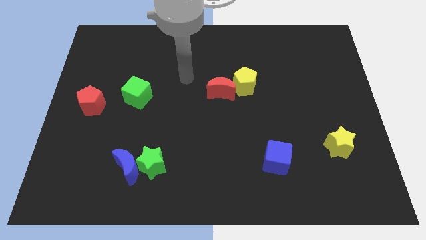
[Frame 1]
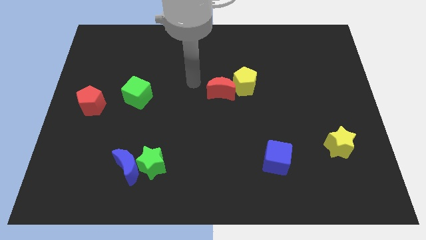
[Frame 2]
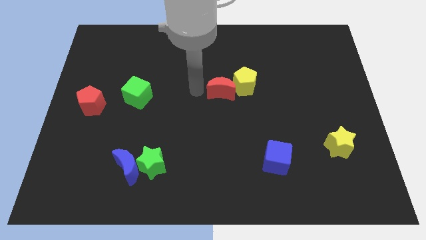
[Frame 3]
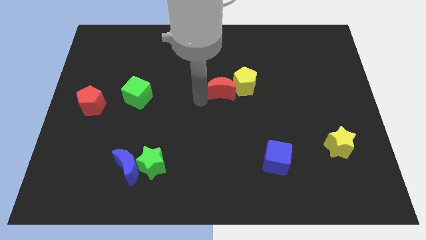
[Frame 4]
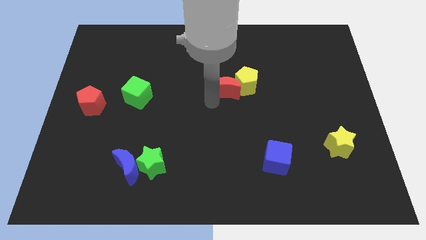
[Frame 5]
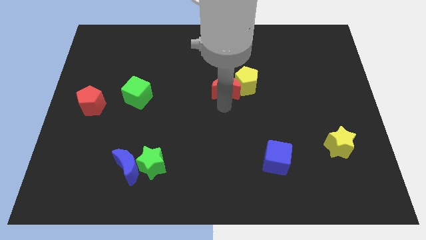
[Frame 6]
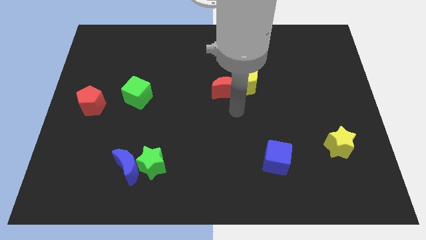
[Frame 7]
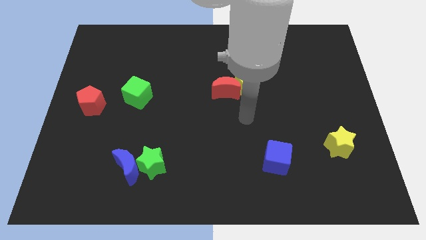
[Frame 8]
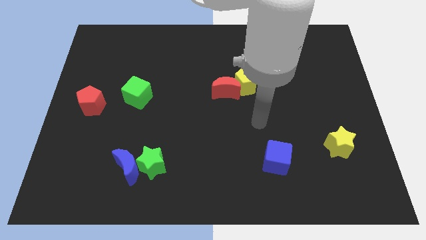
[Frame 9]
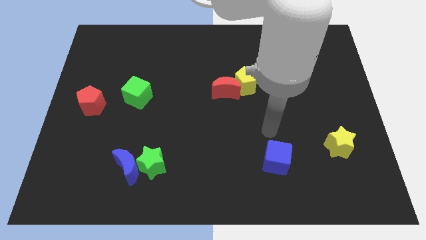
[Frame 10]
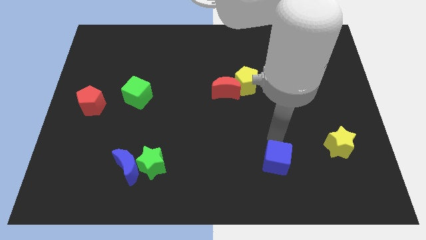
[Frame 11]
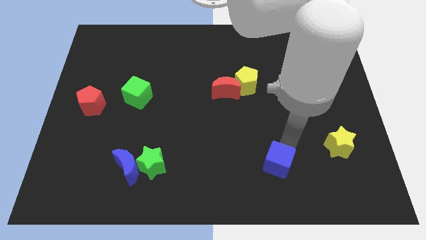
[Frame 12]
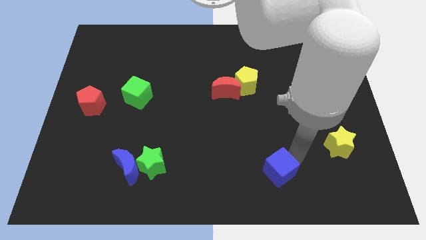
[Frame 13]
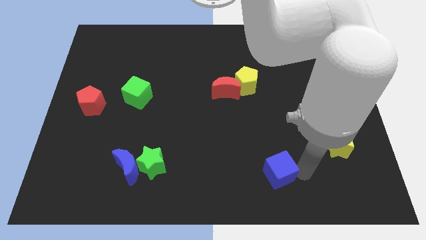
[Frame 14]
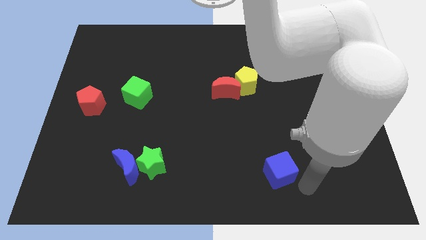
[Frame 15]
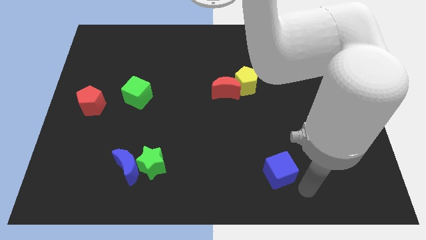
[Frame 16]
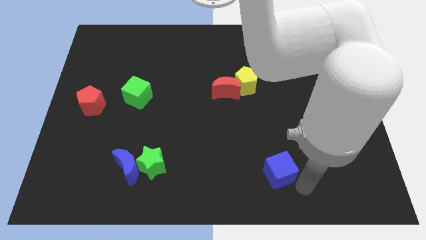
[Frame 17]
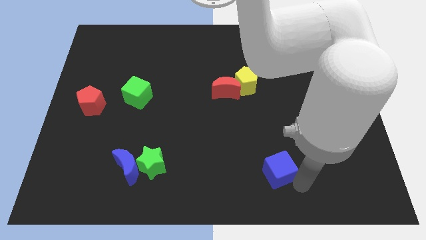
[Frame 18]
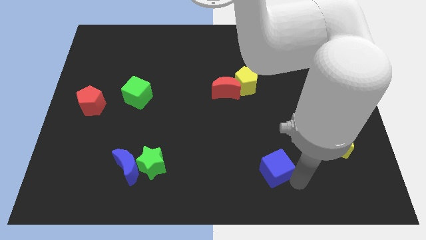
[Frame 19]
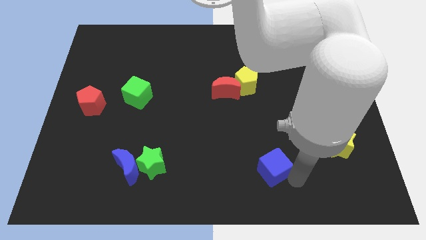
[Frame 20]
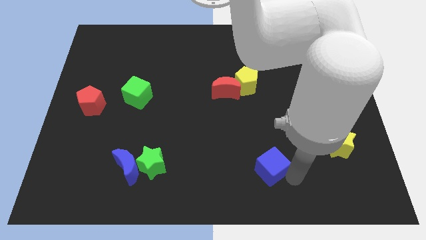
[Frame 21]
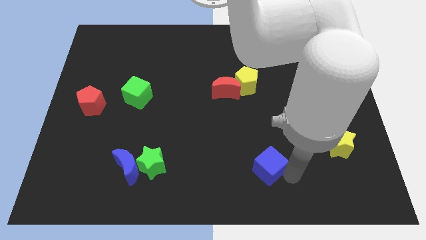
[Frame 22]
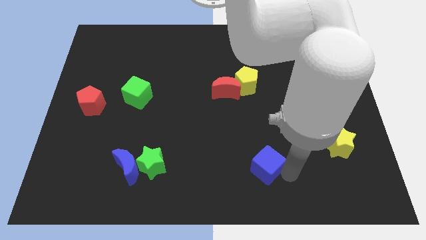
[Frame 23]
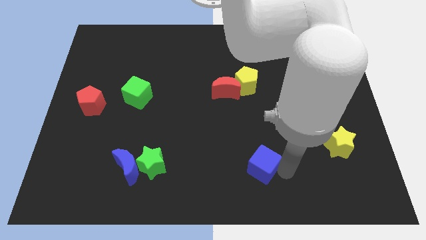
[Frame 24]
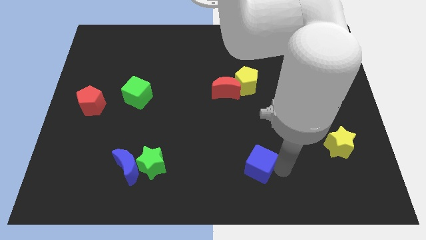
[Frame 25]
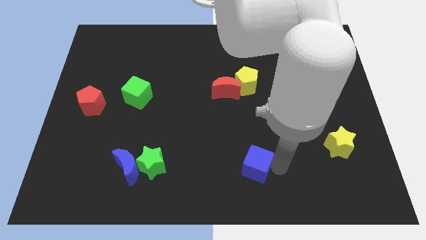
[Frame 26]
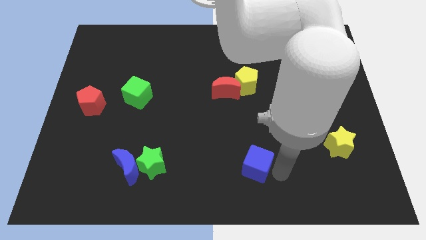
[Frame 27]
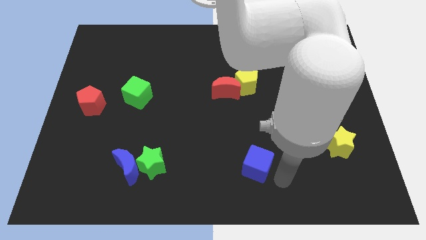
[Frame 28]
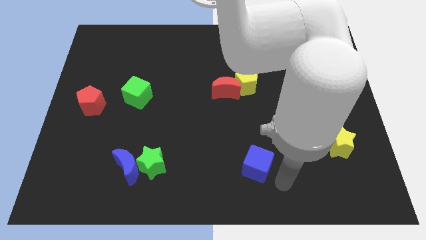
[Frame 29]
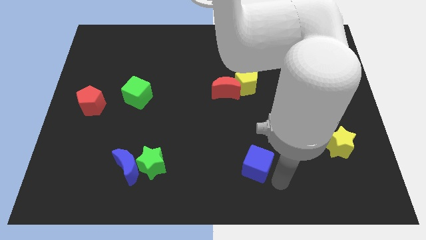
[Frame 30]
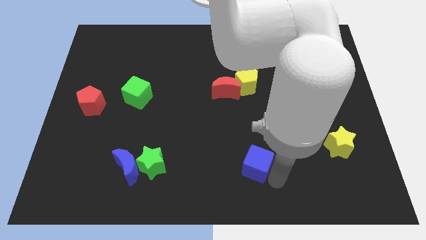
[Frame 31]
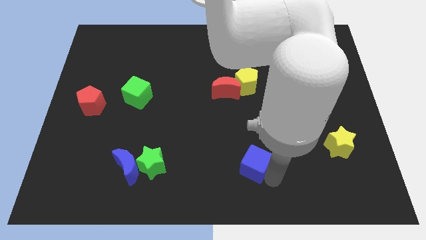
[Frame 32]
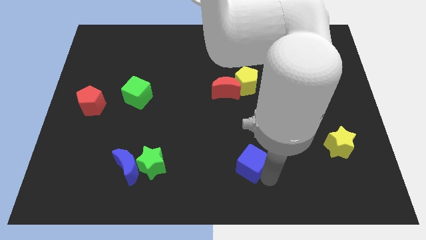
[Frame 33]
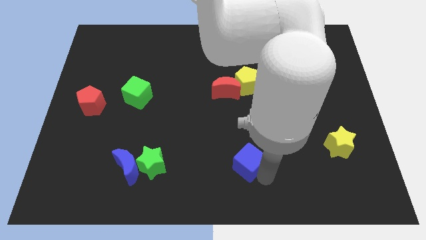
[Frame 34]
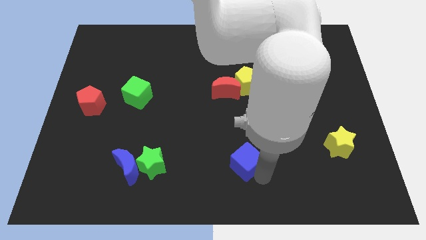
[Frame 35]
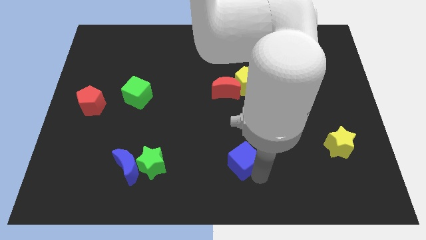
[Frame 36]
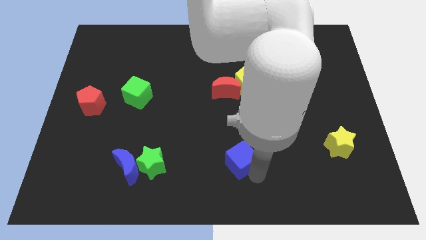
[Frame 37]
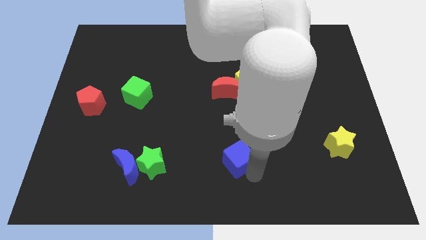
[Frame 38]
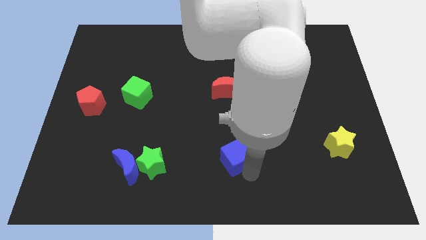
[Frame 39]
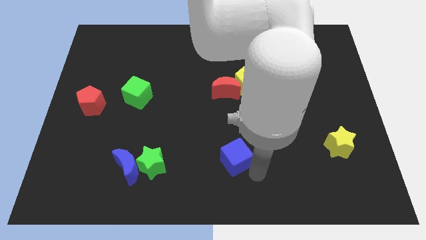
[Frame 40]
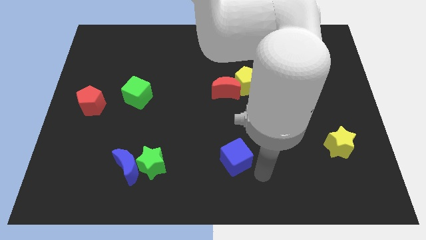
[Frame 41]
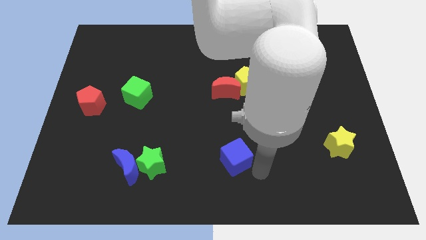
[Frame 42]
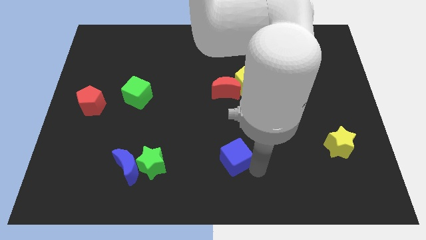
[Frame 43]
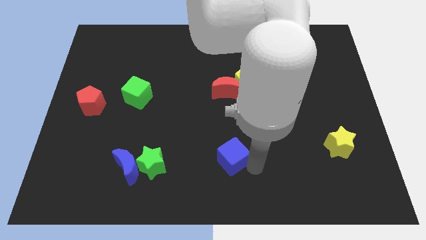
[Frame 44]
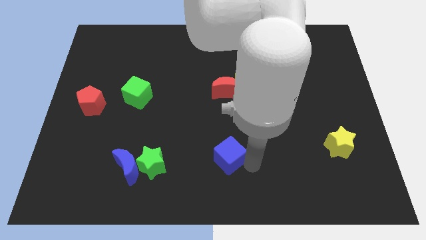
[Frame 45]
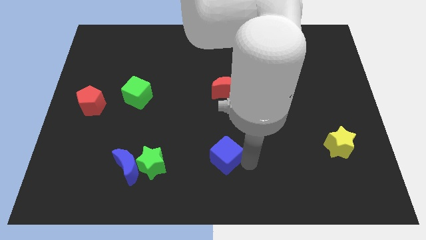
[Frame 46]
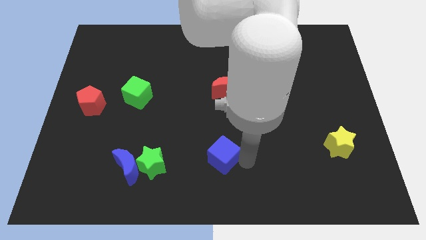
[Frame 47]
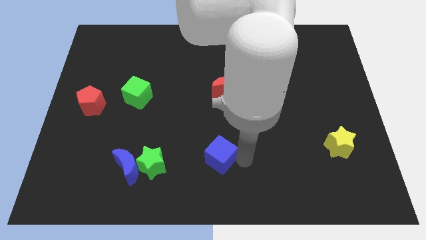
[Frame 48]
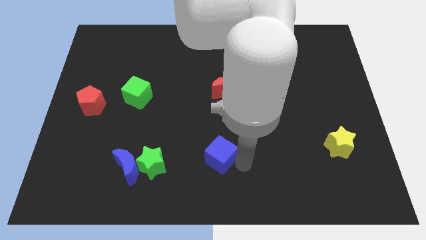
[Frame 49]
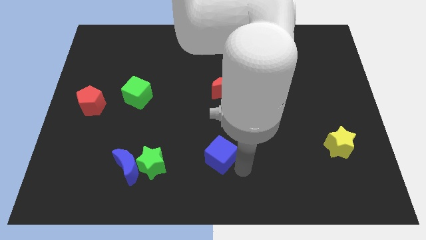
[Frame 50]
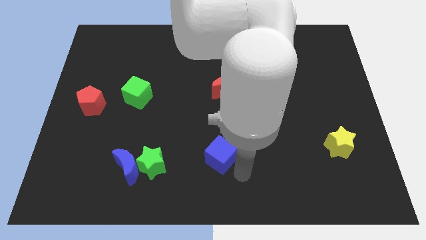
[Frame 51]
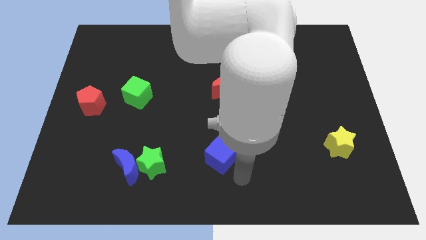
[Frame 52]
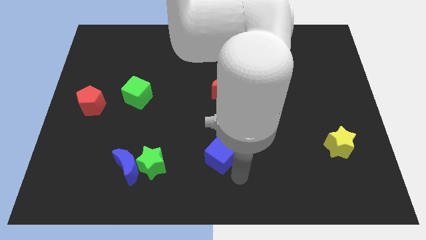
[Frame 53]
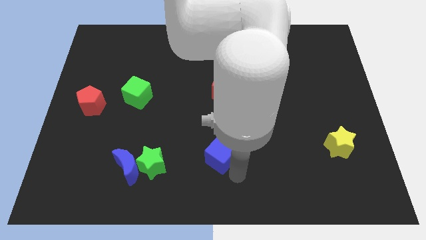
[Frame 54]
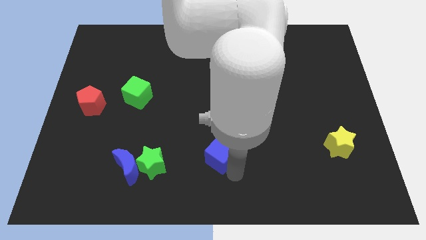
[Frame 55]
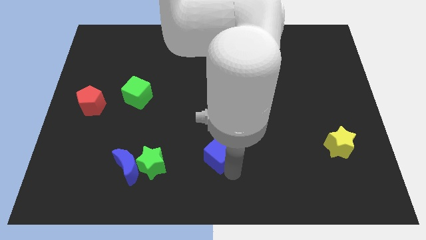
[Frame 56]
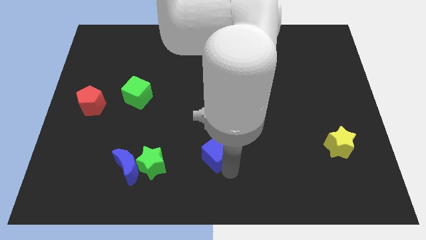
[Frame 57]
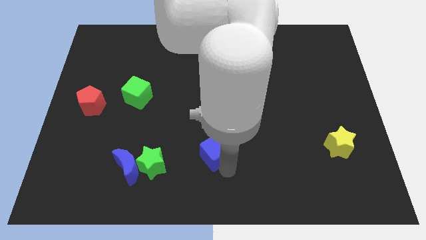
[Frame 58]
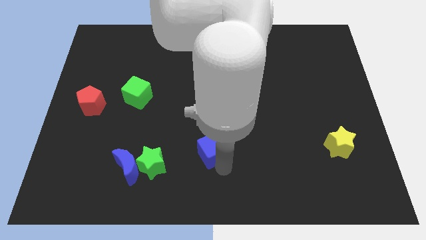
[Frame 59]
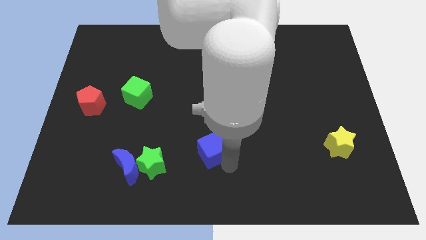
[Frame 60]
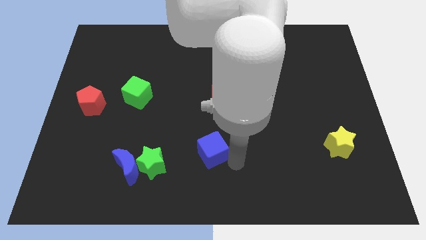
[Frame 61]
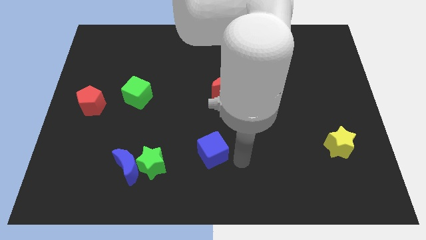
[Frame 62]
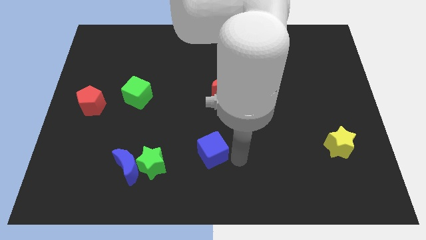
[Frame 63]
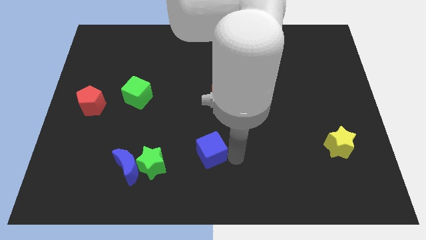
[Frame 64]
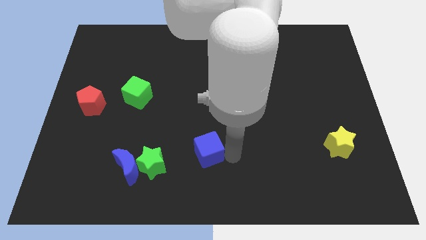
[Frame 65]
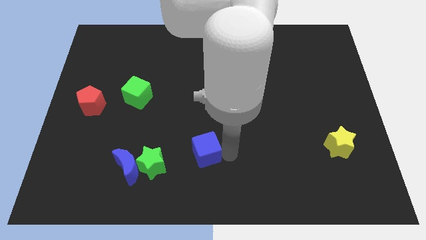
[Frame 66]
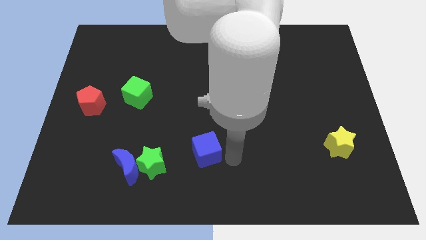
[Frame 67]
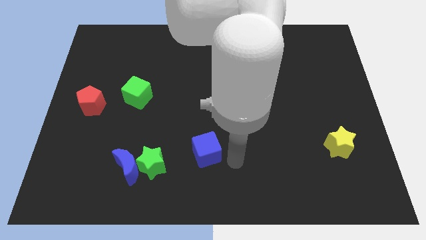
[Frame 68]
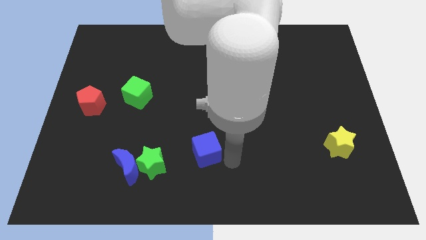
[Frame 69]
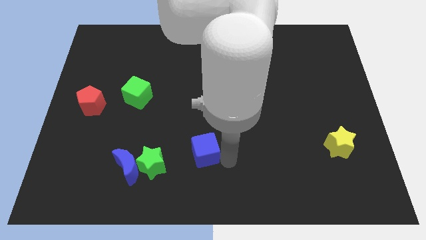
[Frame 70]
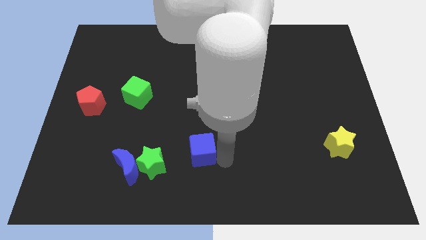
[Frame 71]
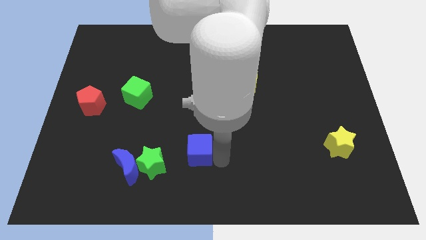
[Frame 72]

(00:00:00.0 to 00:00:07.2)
move the blue cube to the top right of the green star
